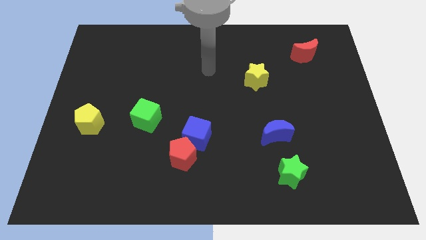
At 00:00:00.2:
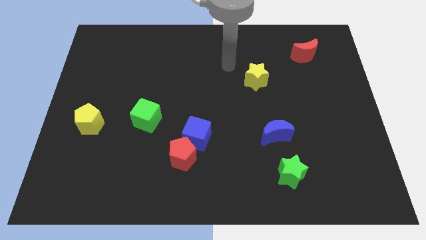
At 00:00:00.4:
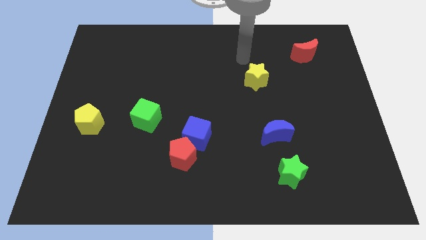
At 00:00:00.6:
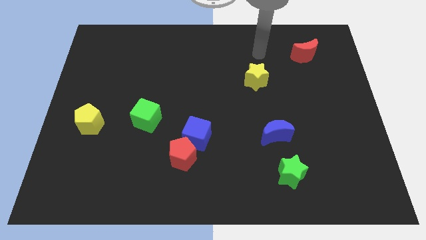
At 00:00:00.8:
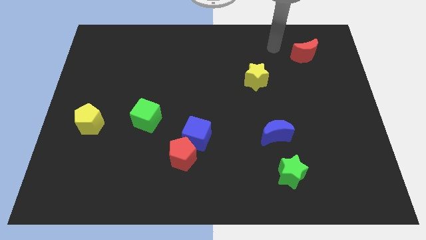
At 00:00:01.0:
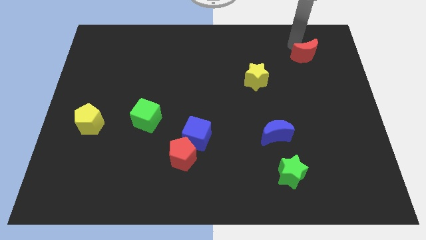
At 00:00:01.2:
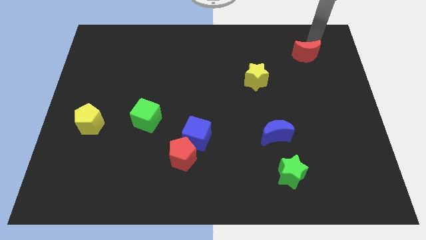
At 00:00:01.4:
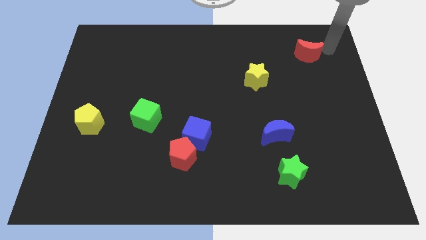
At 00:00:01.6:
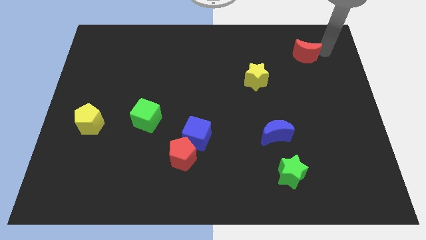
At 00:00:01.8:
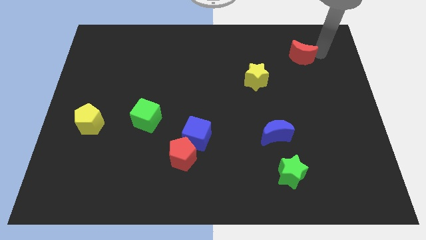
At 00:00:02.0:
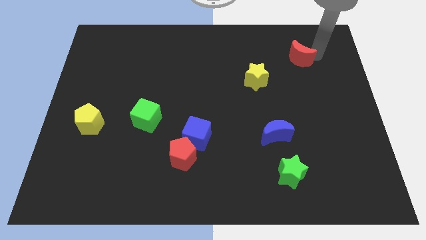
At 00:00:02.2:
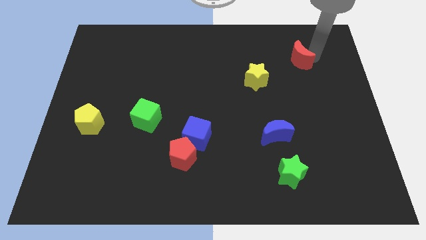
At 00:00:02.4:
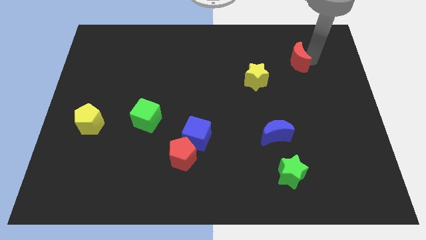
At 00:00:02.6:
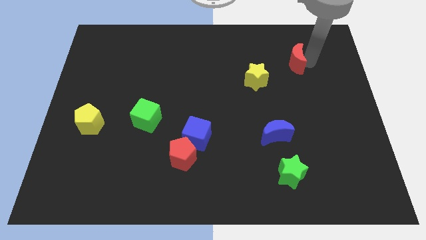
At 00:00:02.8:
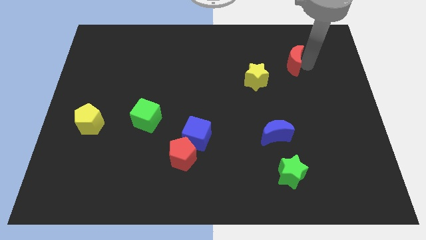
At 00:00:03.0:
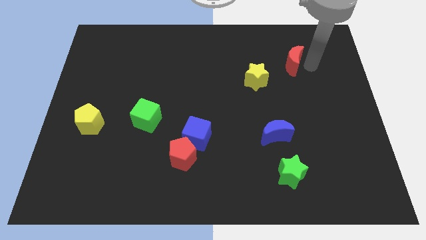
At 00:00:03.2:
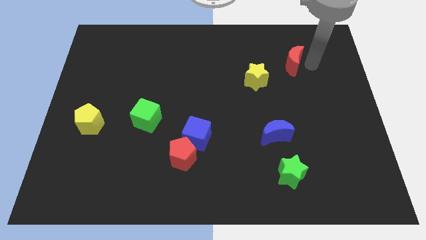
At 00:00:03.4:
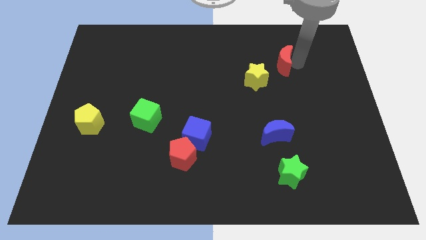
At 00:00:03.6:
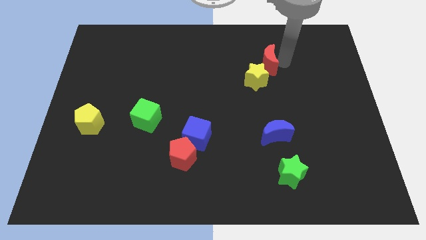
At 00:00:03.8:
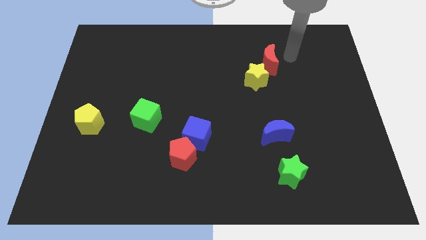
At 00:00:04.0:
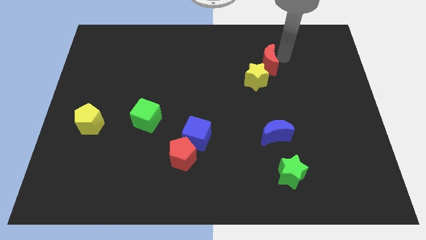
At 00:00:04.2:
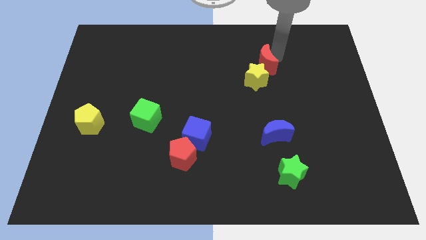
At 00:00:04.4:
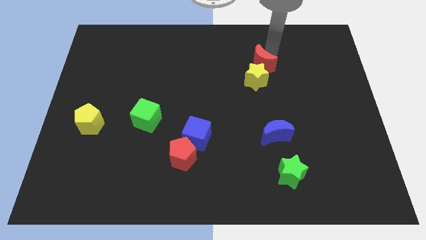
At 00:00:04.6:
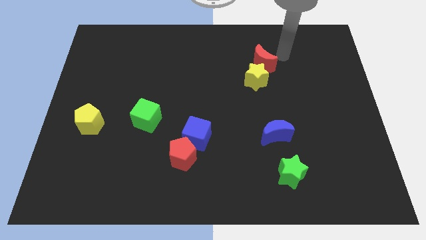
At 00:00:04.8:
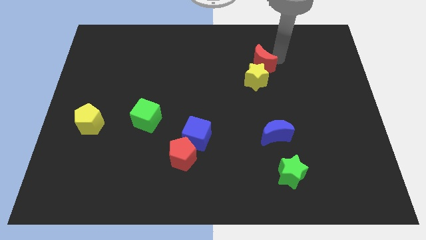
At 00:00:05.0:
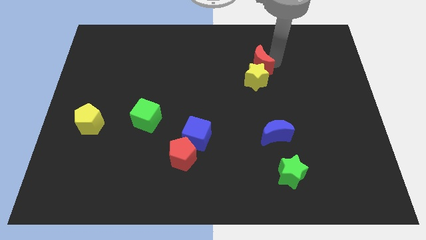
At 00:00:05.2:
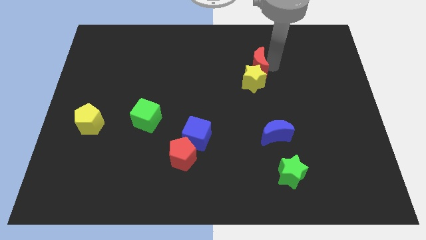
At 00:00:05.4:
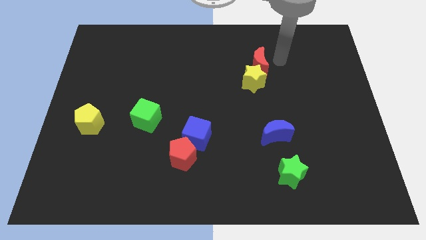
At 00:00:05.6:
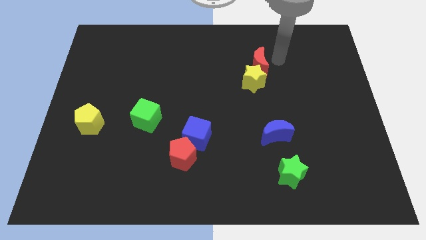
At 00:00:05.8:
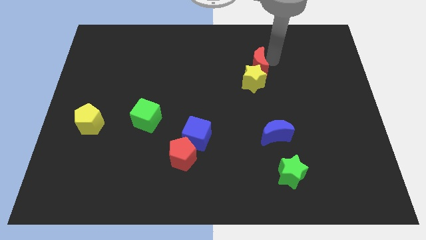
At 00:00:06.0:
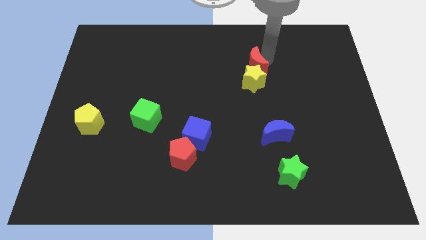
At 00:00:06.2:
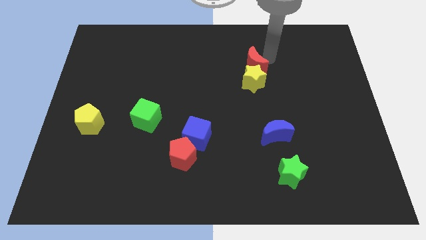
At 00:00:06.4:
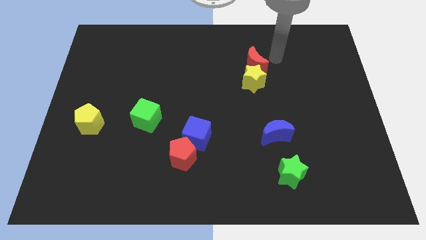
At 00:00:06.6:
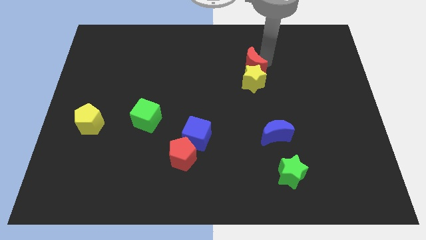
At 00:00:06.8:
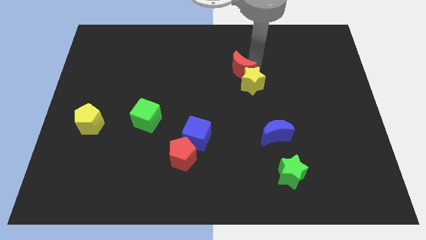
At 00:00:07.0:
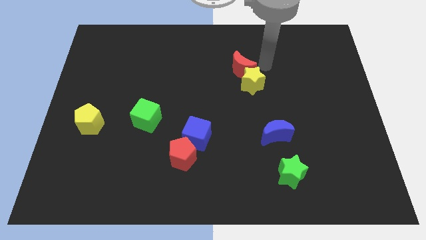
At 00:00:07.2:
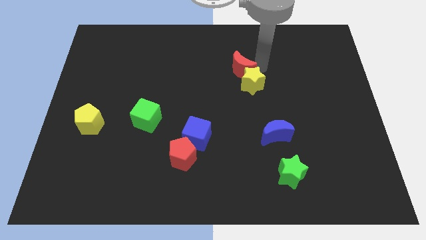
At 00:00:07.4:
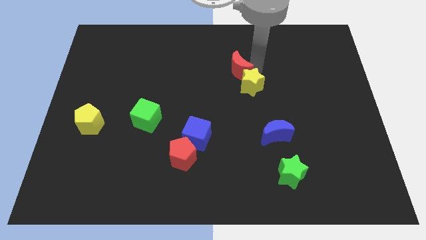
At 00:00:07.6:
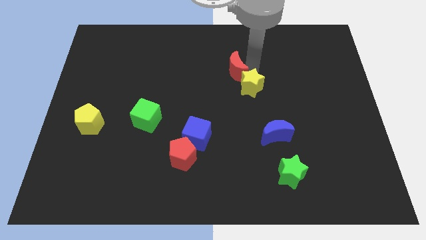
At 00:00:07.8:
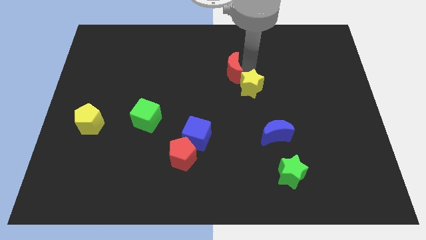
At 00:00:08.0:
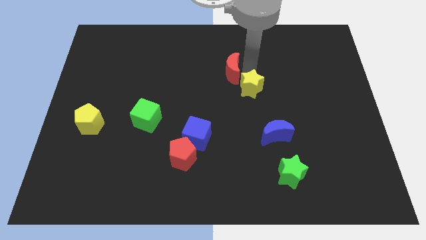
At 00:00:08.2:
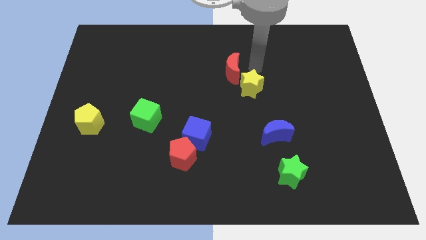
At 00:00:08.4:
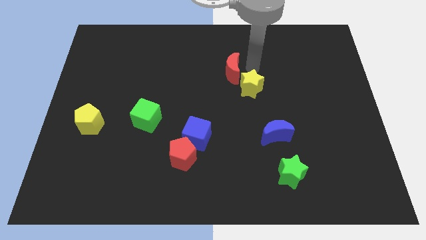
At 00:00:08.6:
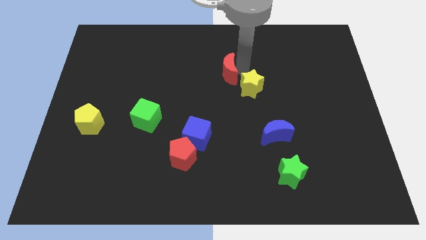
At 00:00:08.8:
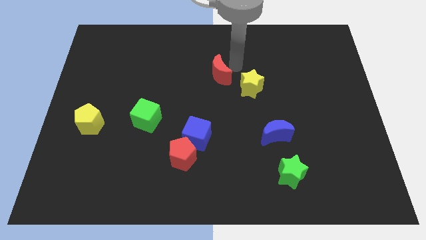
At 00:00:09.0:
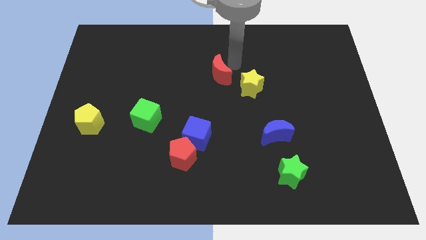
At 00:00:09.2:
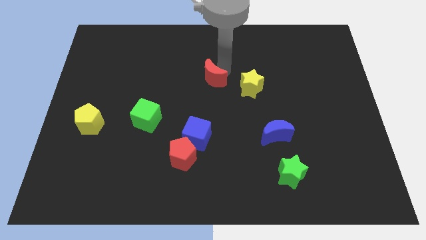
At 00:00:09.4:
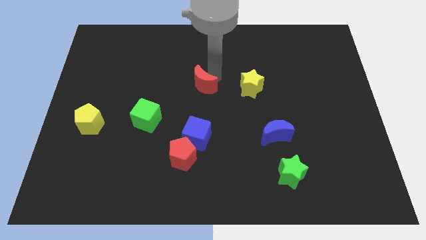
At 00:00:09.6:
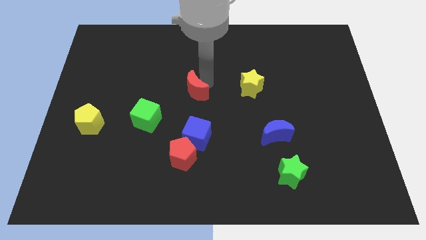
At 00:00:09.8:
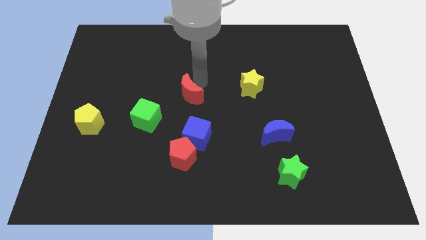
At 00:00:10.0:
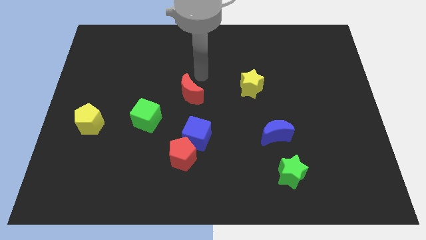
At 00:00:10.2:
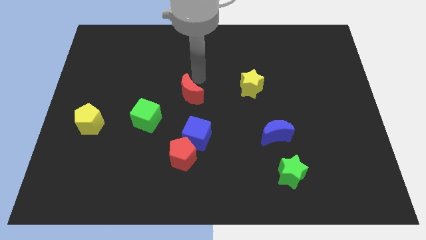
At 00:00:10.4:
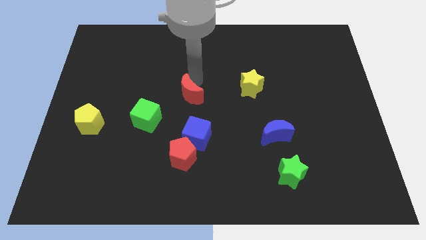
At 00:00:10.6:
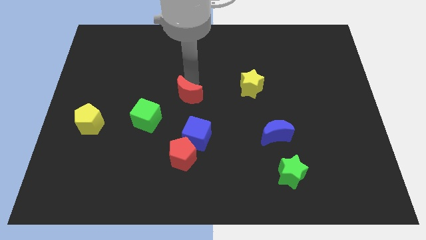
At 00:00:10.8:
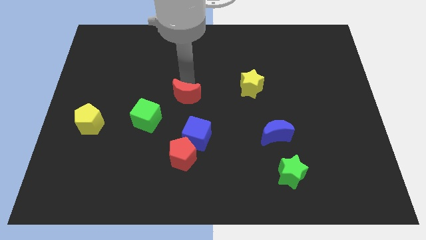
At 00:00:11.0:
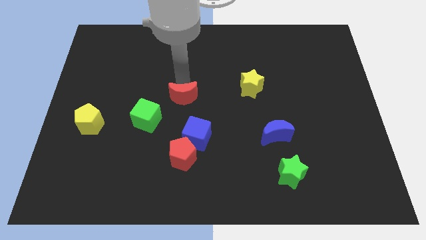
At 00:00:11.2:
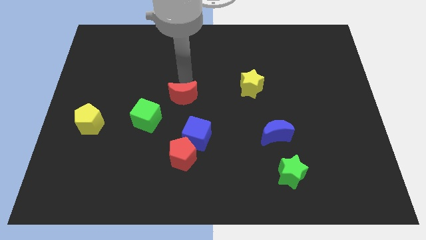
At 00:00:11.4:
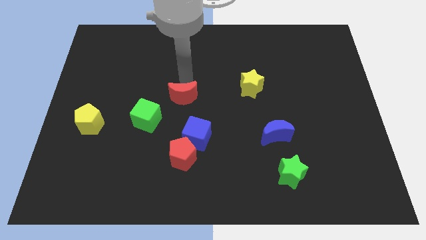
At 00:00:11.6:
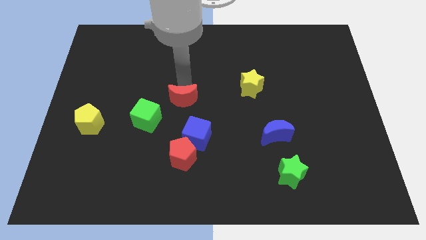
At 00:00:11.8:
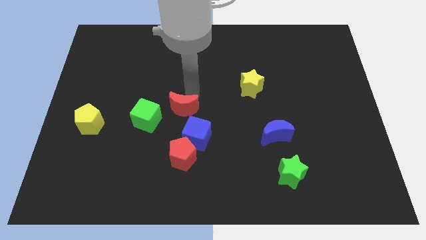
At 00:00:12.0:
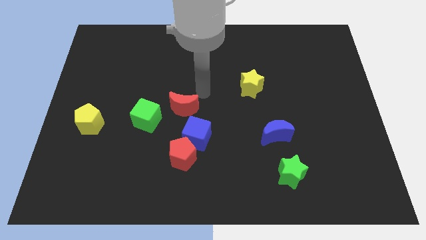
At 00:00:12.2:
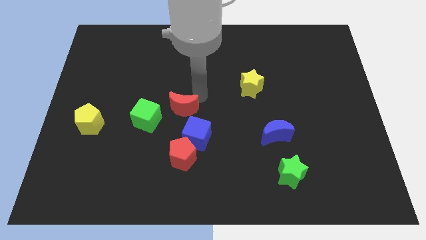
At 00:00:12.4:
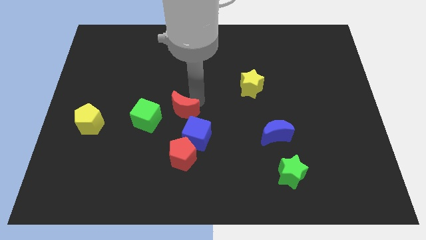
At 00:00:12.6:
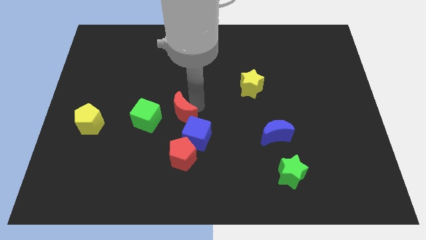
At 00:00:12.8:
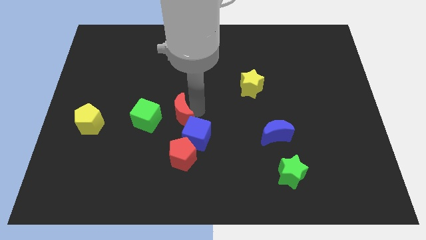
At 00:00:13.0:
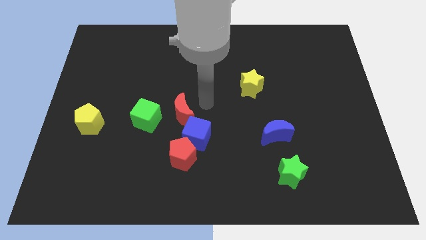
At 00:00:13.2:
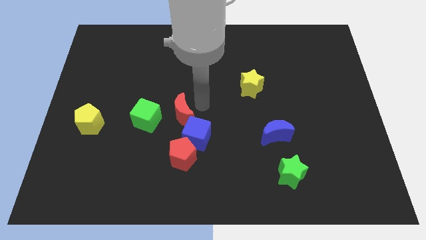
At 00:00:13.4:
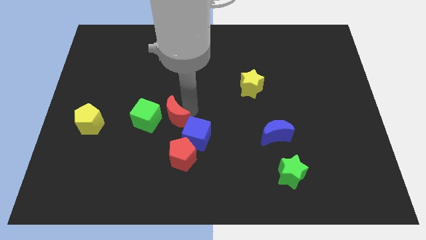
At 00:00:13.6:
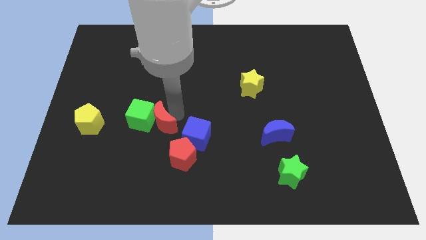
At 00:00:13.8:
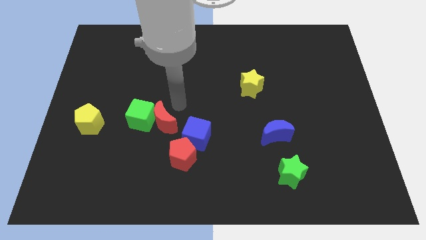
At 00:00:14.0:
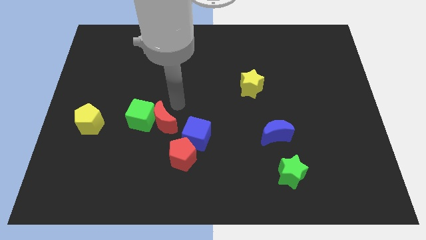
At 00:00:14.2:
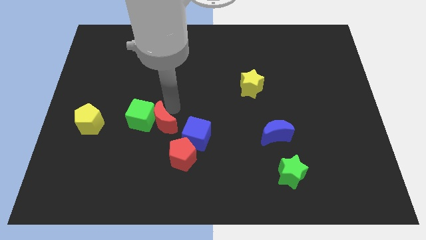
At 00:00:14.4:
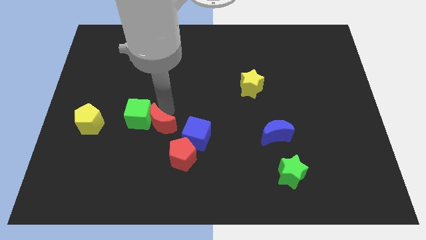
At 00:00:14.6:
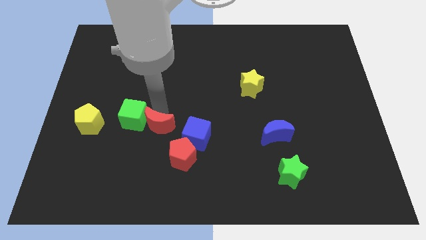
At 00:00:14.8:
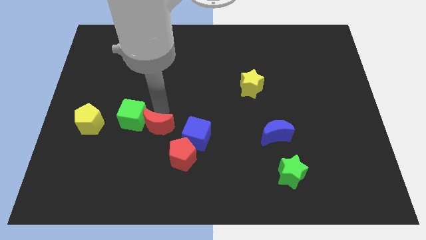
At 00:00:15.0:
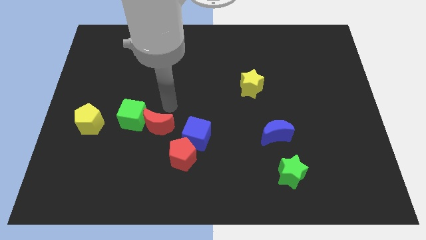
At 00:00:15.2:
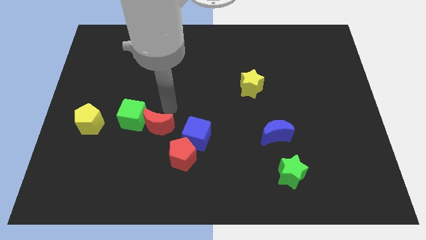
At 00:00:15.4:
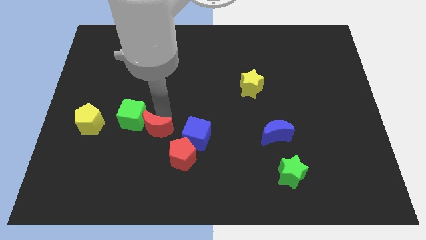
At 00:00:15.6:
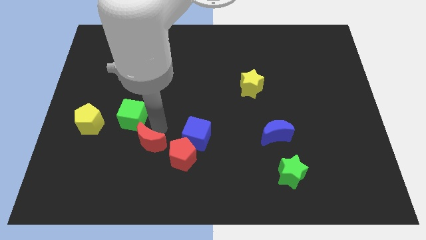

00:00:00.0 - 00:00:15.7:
push the red moon to the bottom of the green cube
